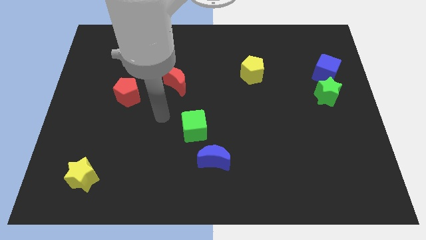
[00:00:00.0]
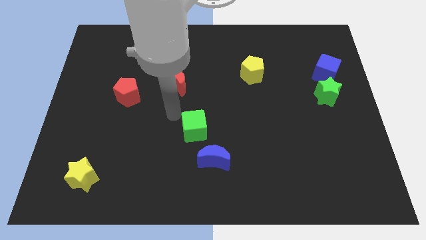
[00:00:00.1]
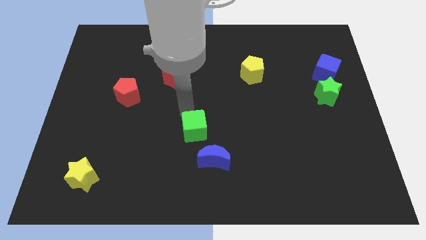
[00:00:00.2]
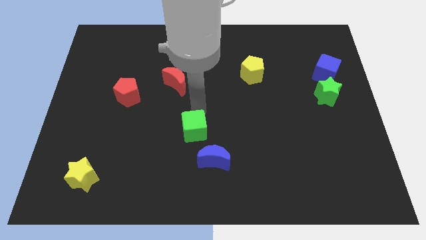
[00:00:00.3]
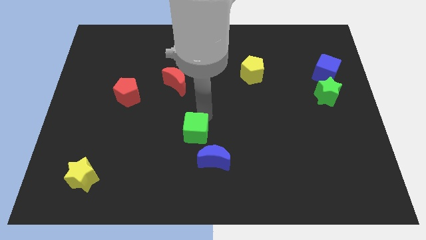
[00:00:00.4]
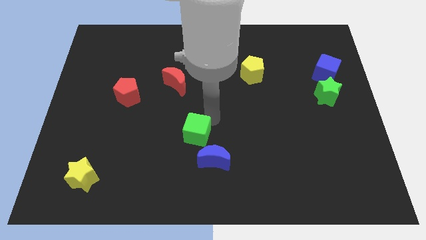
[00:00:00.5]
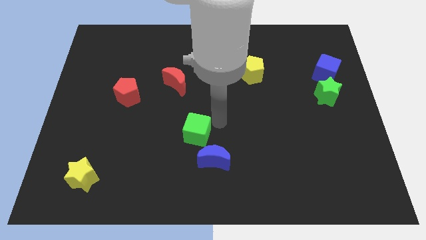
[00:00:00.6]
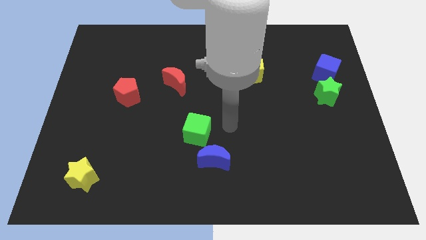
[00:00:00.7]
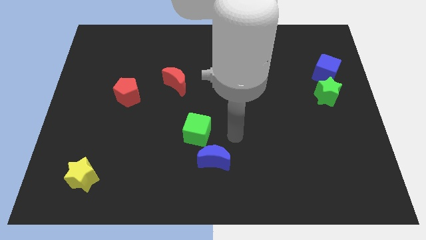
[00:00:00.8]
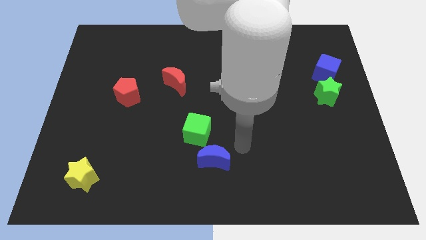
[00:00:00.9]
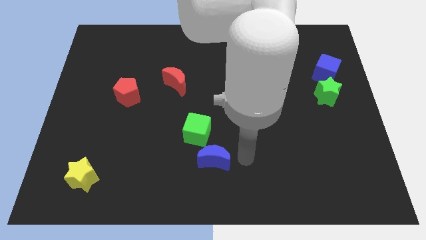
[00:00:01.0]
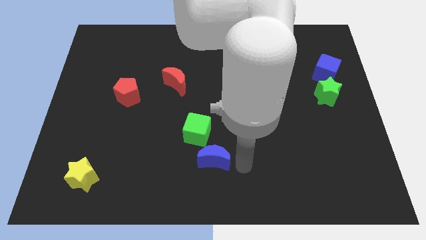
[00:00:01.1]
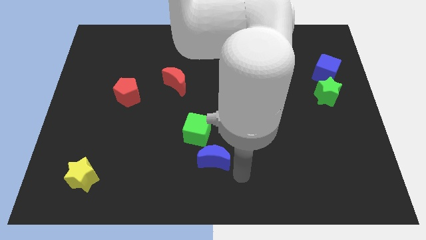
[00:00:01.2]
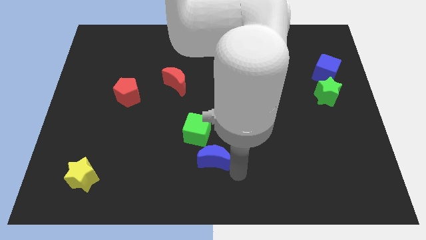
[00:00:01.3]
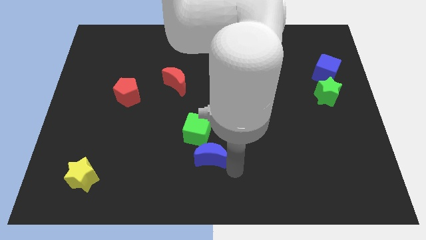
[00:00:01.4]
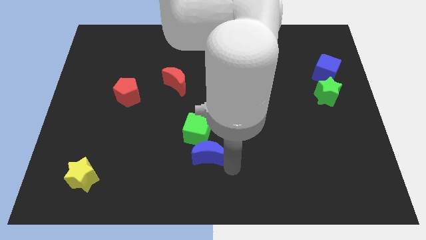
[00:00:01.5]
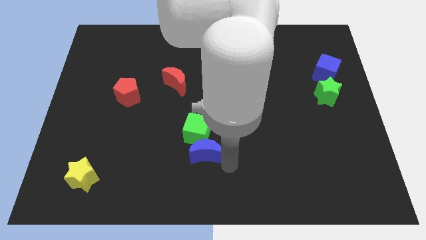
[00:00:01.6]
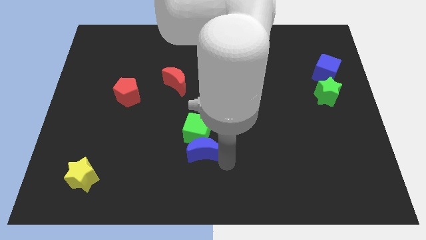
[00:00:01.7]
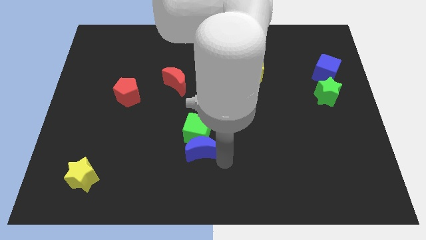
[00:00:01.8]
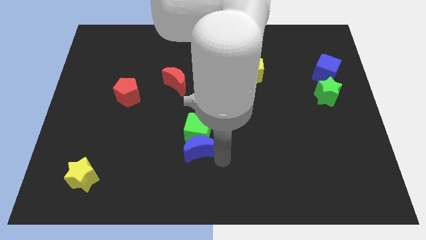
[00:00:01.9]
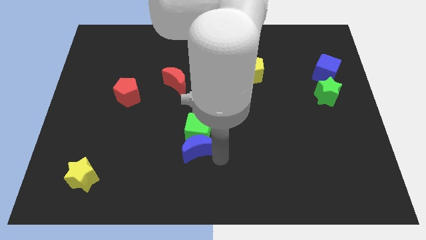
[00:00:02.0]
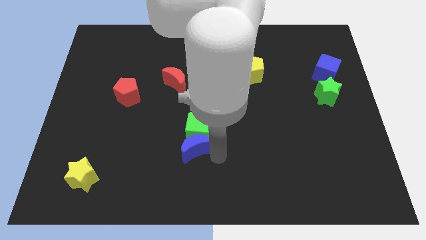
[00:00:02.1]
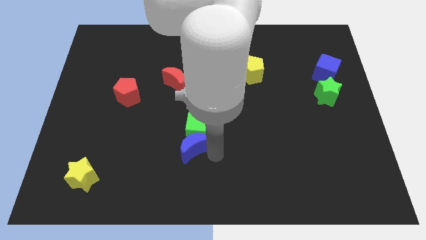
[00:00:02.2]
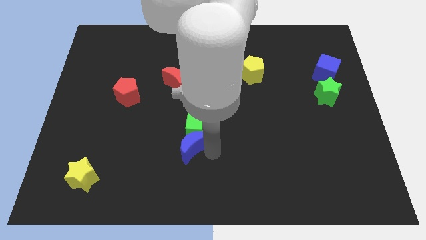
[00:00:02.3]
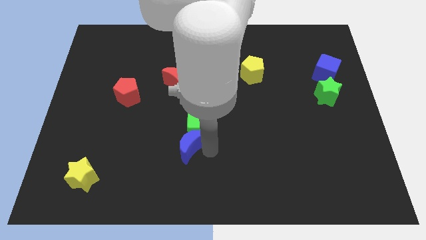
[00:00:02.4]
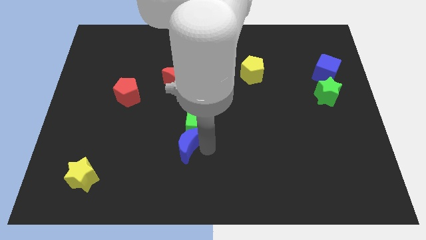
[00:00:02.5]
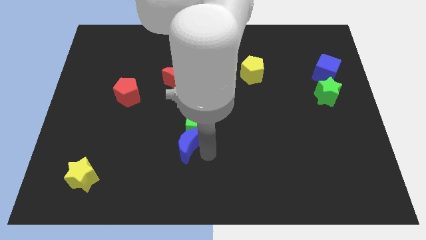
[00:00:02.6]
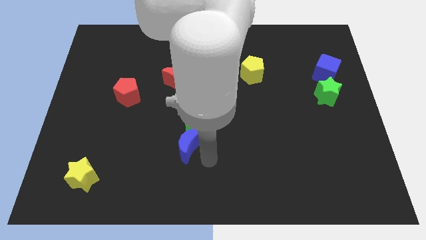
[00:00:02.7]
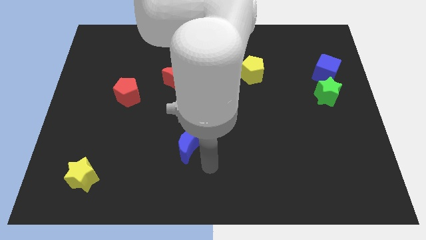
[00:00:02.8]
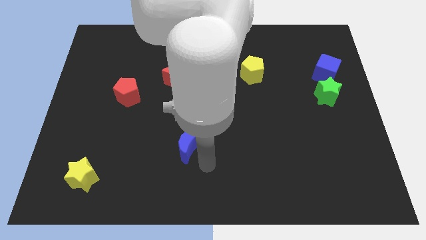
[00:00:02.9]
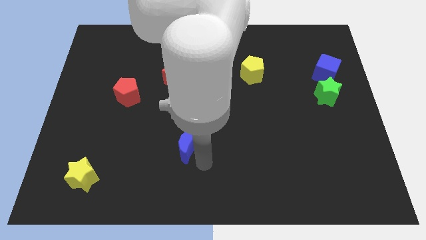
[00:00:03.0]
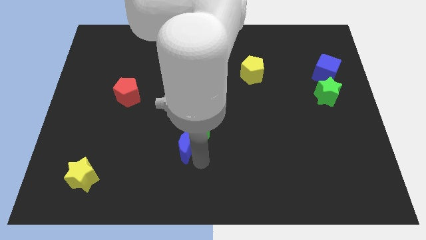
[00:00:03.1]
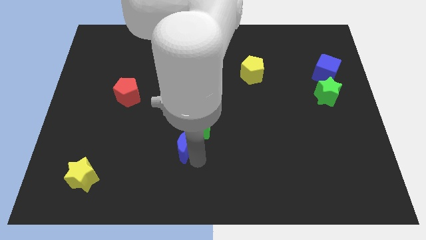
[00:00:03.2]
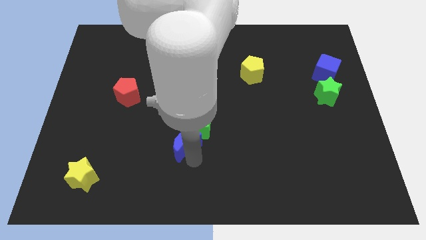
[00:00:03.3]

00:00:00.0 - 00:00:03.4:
slightly push the blue moon up and left diagonally

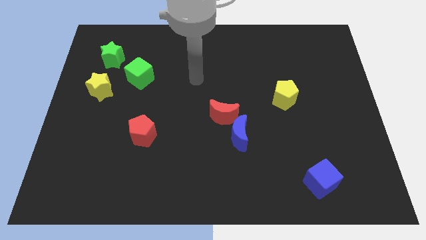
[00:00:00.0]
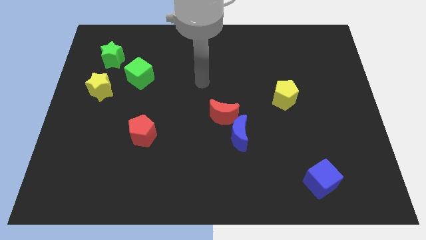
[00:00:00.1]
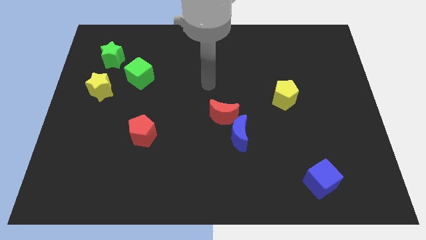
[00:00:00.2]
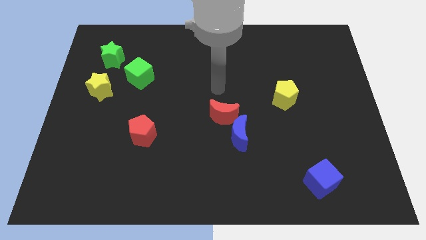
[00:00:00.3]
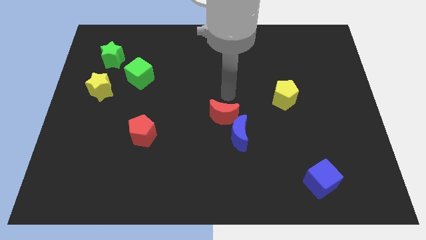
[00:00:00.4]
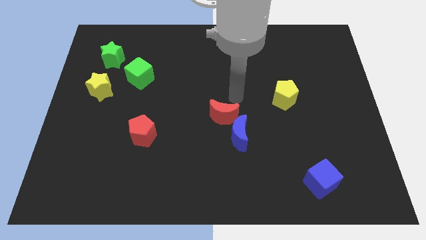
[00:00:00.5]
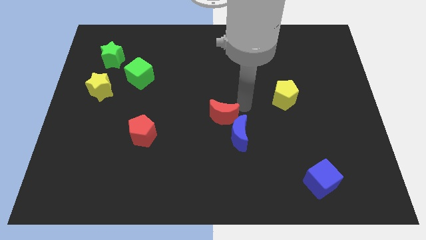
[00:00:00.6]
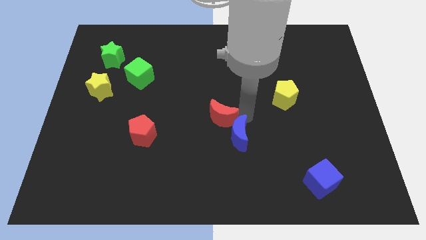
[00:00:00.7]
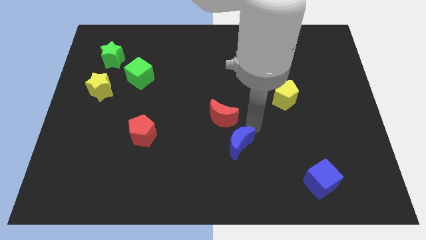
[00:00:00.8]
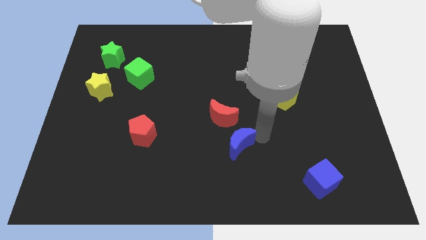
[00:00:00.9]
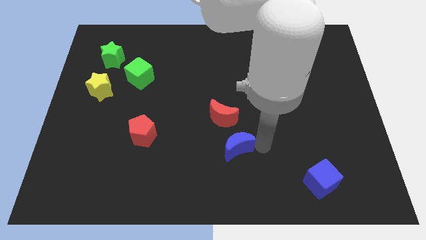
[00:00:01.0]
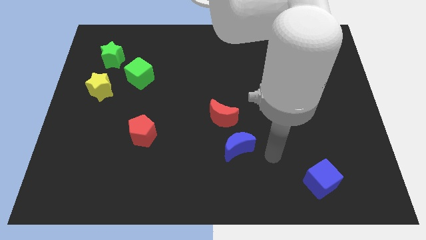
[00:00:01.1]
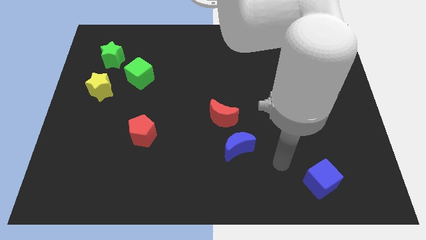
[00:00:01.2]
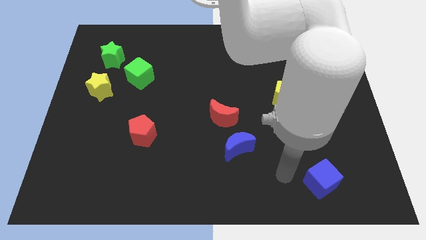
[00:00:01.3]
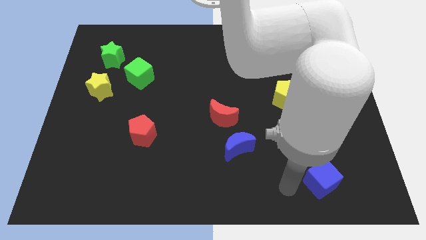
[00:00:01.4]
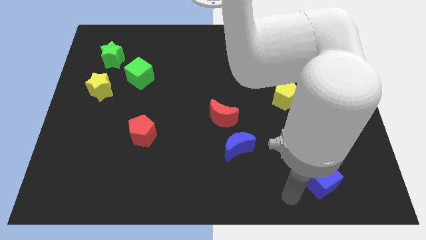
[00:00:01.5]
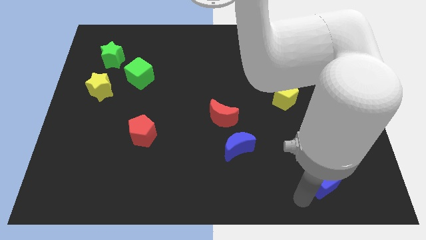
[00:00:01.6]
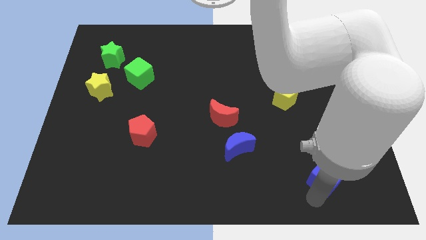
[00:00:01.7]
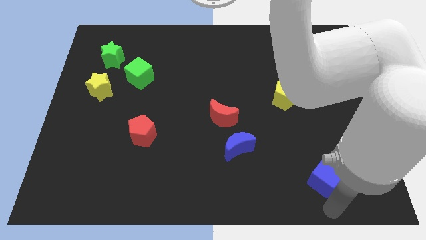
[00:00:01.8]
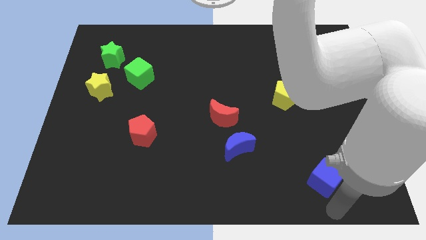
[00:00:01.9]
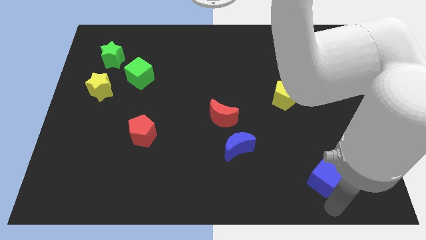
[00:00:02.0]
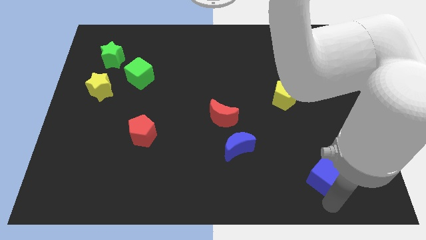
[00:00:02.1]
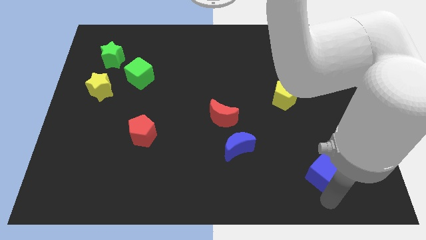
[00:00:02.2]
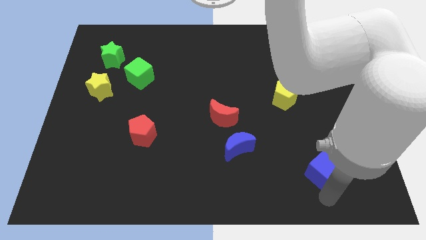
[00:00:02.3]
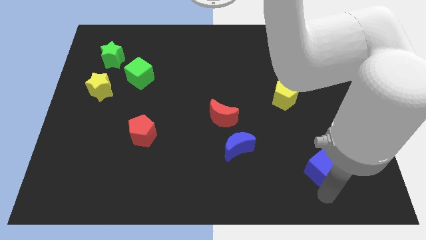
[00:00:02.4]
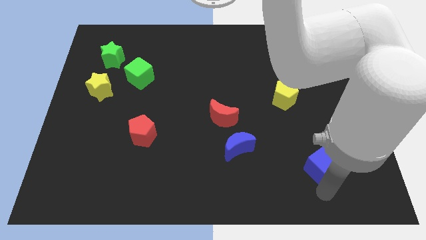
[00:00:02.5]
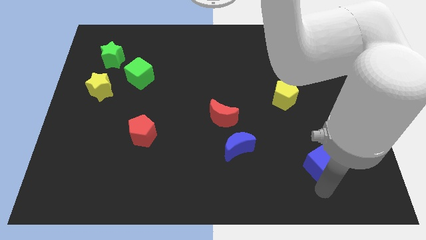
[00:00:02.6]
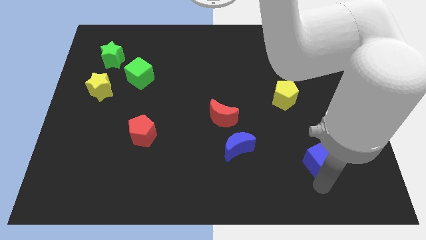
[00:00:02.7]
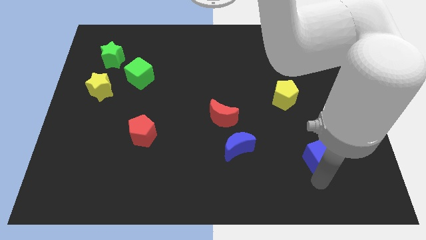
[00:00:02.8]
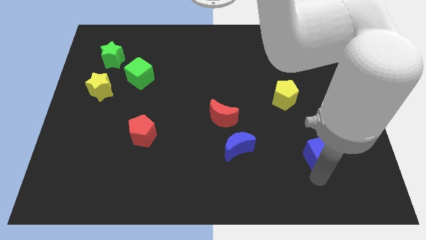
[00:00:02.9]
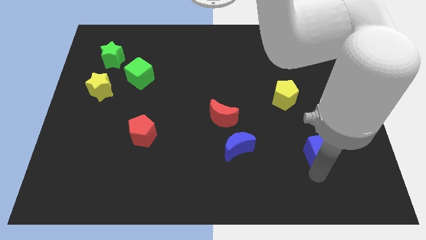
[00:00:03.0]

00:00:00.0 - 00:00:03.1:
slightly move the blue cube up

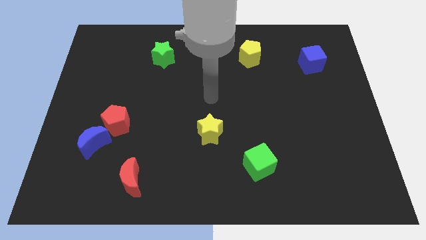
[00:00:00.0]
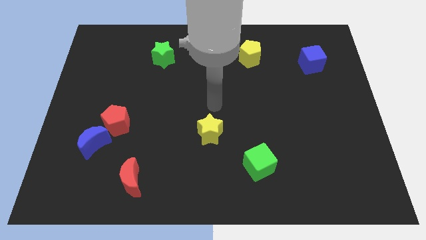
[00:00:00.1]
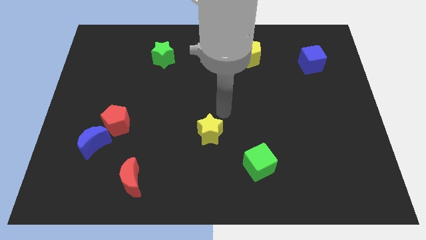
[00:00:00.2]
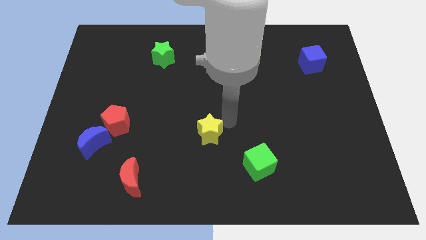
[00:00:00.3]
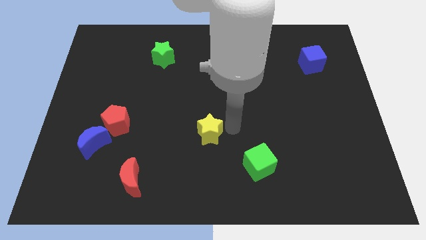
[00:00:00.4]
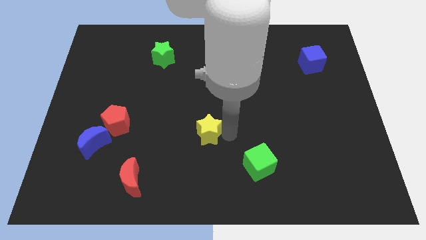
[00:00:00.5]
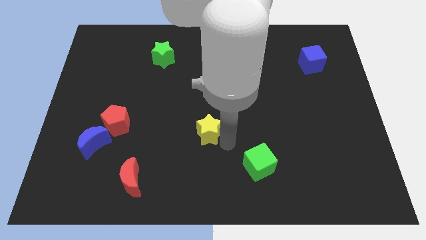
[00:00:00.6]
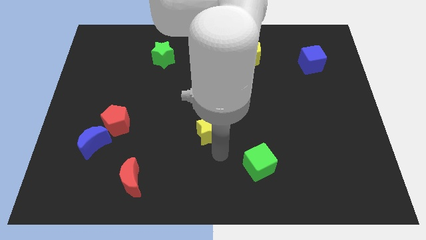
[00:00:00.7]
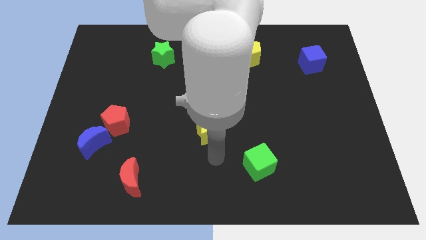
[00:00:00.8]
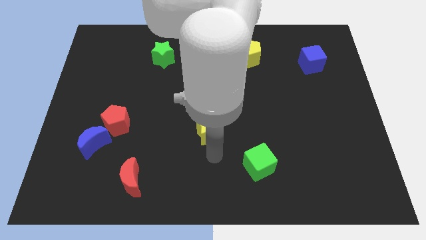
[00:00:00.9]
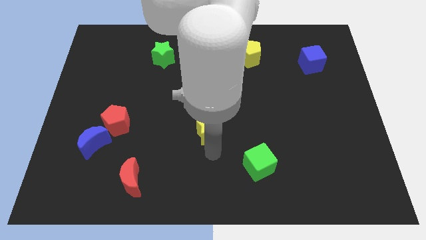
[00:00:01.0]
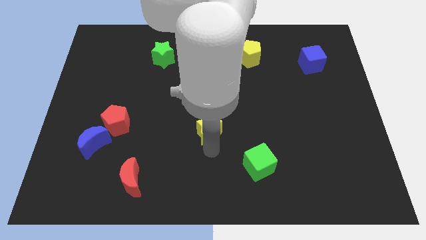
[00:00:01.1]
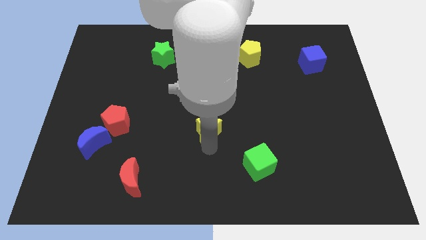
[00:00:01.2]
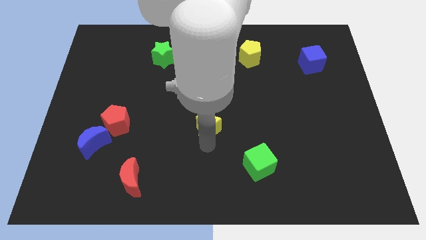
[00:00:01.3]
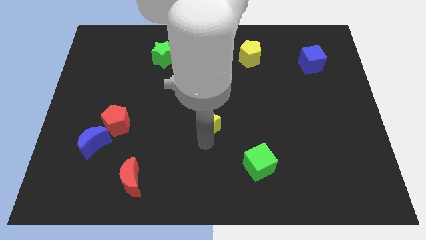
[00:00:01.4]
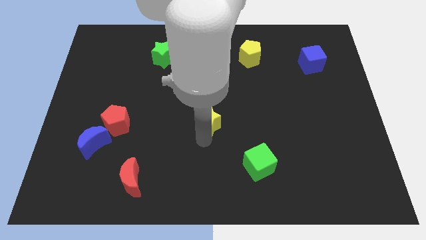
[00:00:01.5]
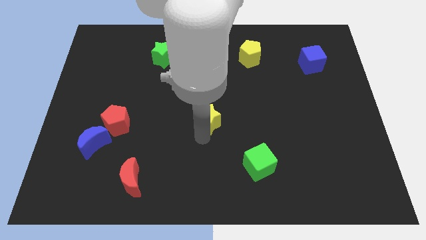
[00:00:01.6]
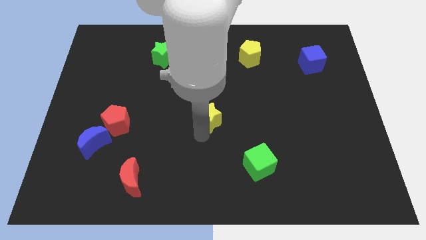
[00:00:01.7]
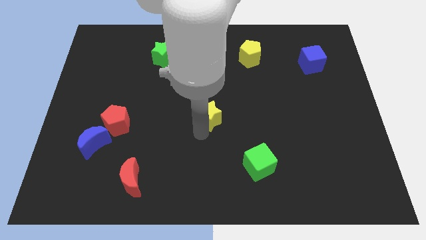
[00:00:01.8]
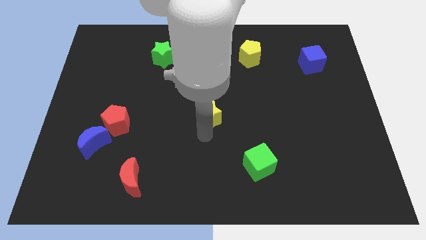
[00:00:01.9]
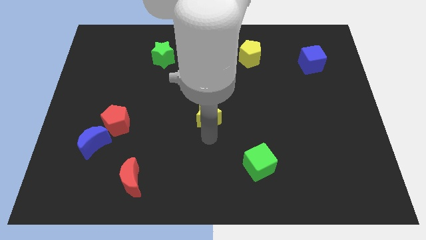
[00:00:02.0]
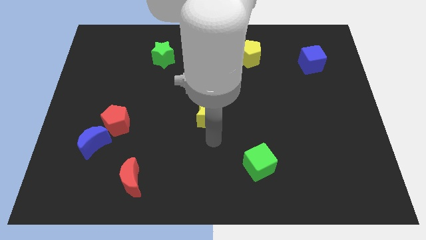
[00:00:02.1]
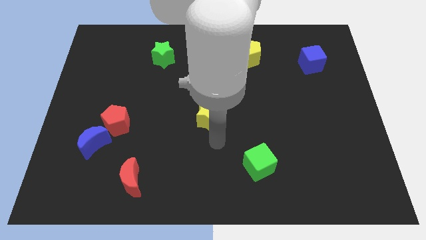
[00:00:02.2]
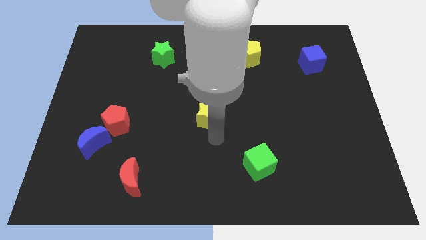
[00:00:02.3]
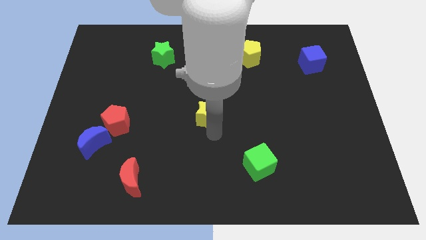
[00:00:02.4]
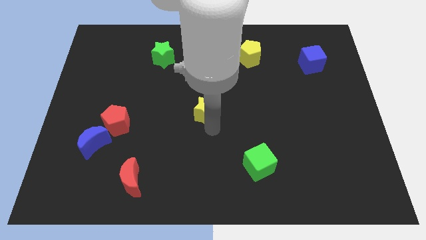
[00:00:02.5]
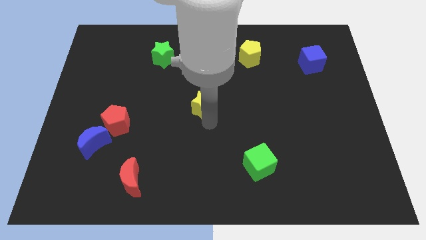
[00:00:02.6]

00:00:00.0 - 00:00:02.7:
push the yellow star slightly upwards
